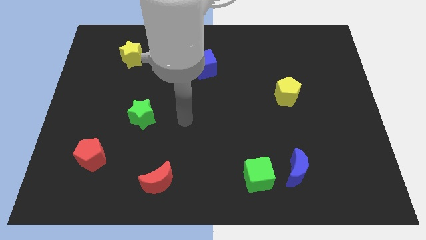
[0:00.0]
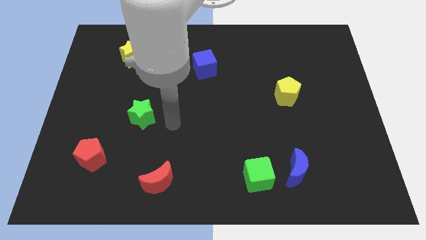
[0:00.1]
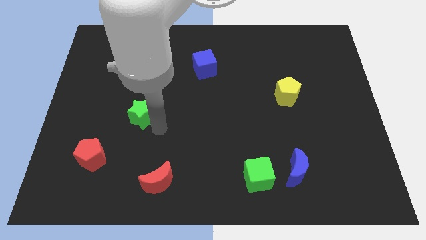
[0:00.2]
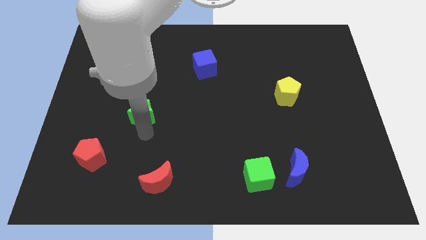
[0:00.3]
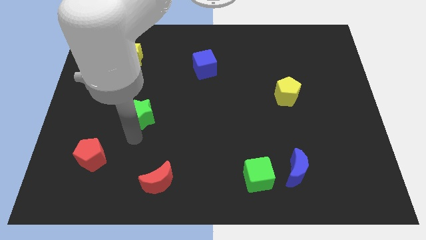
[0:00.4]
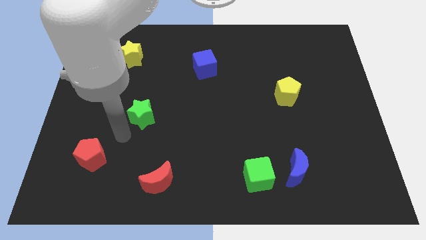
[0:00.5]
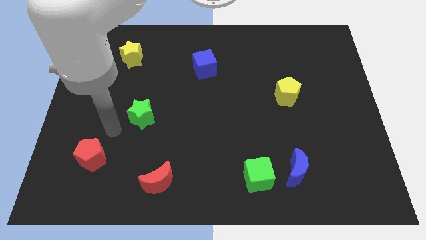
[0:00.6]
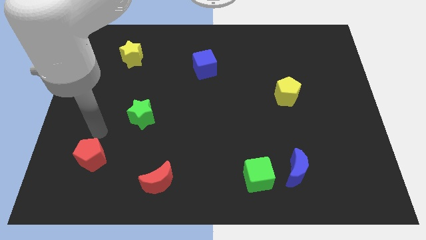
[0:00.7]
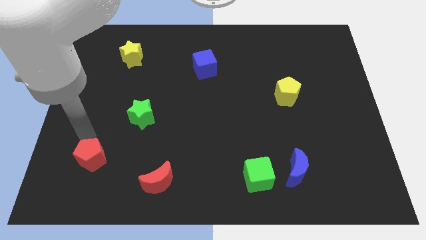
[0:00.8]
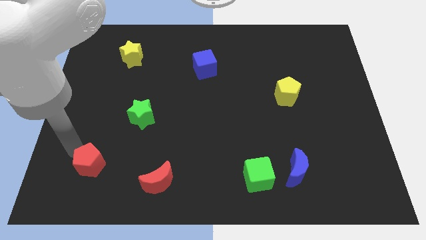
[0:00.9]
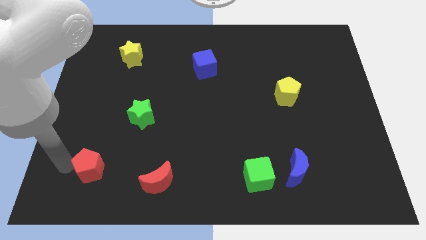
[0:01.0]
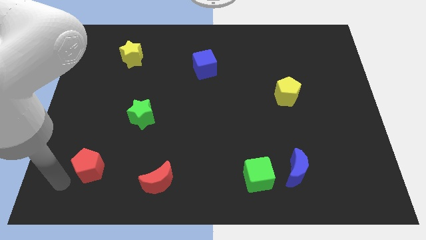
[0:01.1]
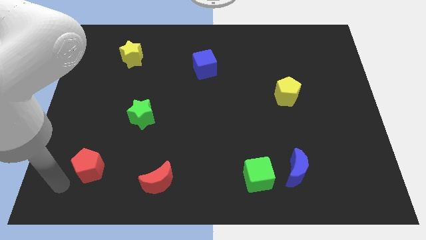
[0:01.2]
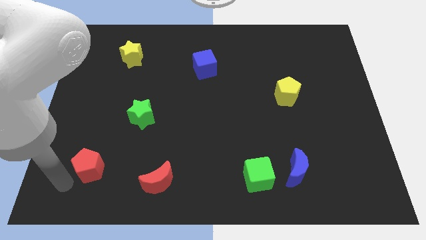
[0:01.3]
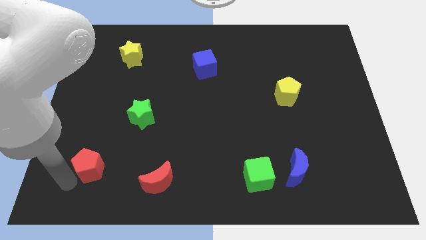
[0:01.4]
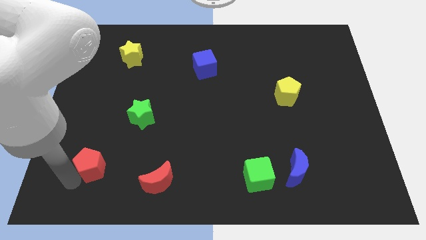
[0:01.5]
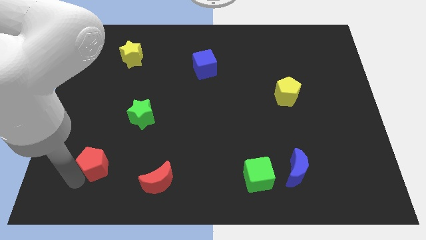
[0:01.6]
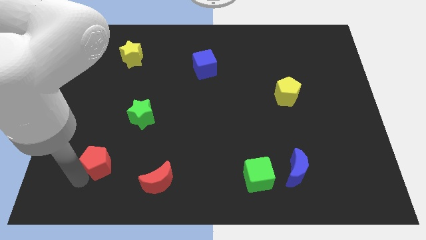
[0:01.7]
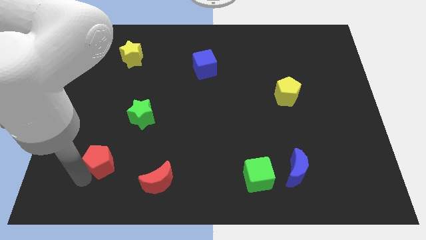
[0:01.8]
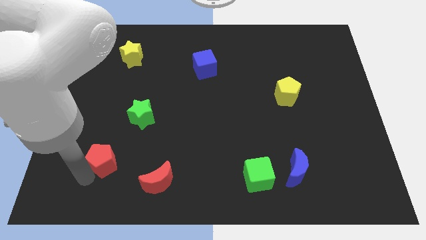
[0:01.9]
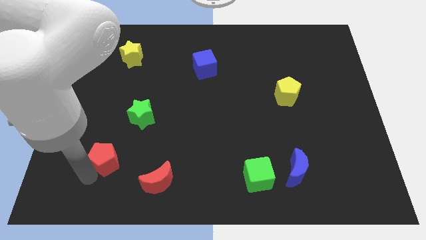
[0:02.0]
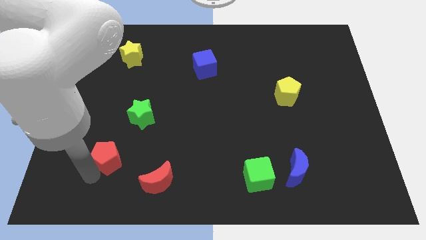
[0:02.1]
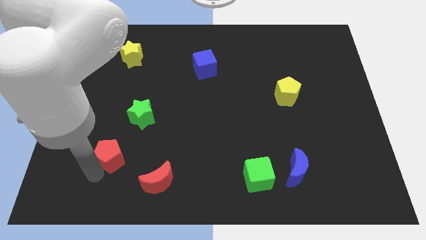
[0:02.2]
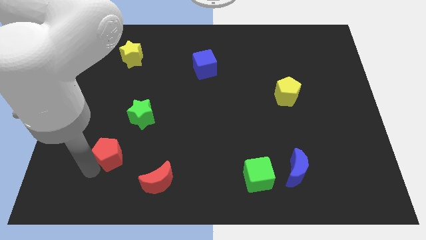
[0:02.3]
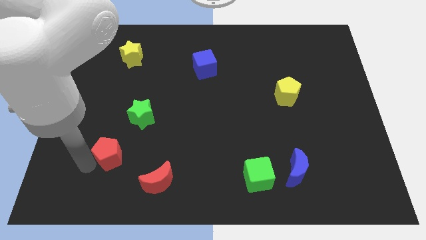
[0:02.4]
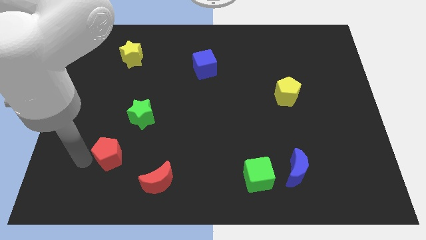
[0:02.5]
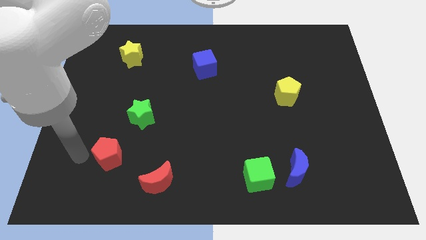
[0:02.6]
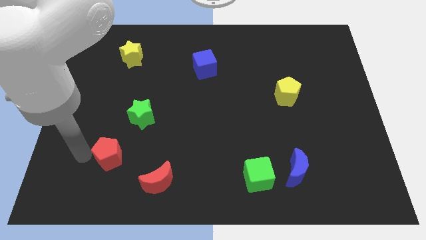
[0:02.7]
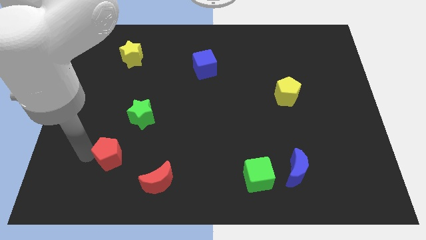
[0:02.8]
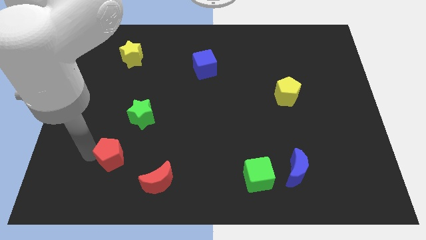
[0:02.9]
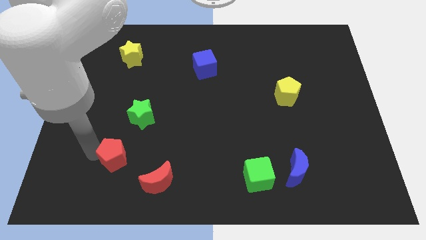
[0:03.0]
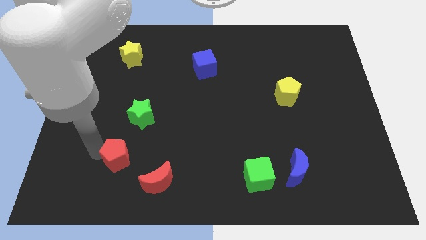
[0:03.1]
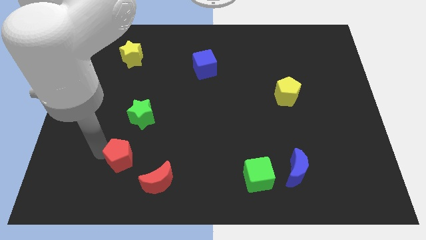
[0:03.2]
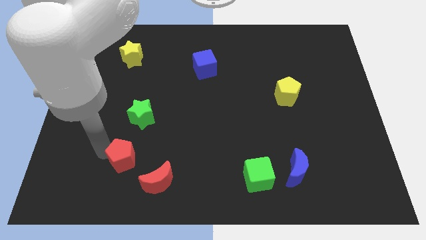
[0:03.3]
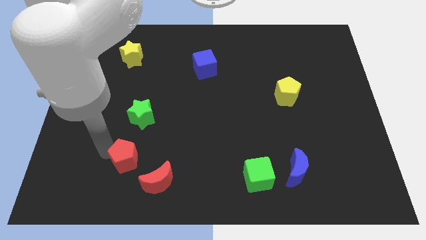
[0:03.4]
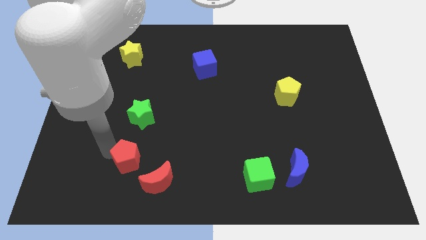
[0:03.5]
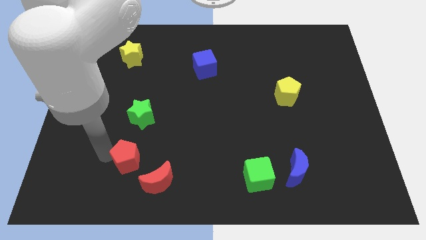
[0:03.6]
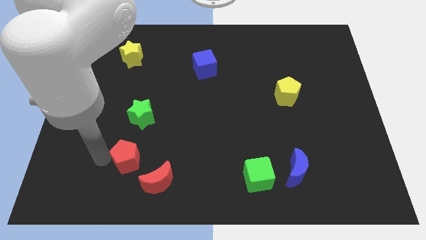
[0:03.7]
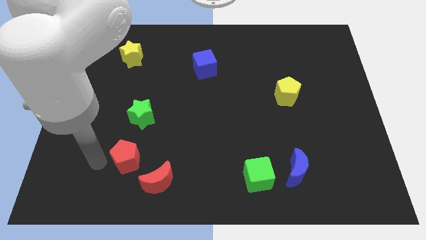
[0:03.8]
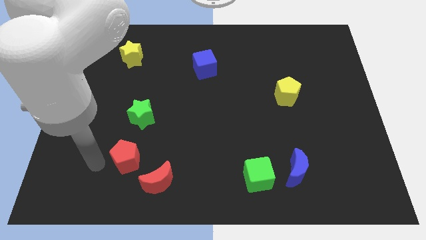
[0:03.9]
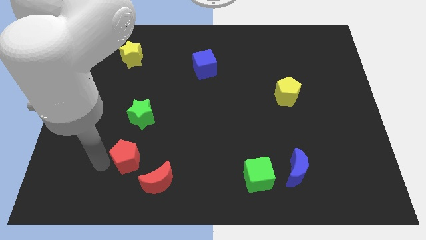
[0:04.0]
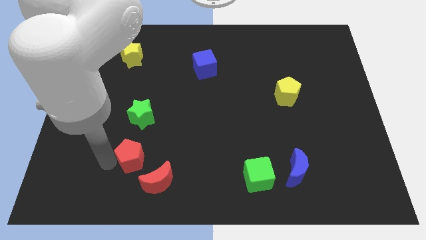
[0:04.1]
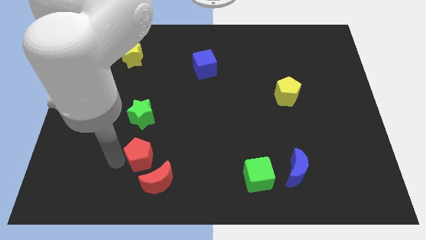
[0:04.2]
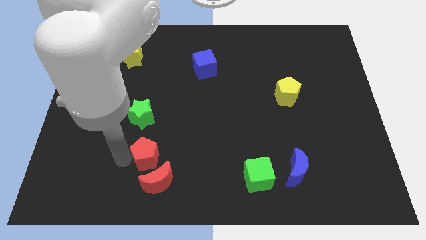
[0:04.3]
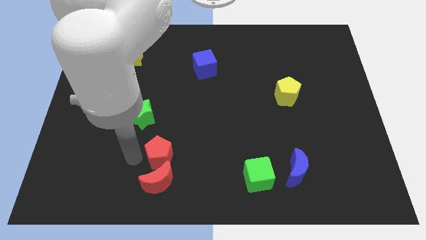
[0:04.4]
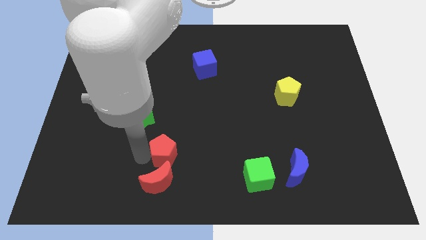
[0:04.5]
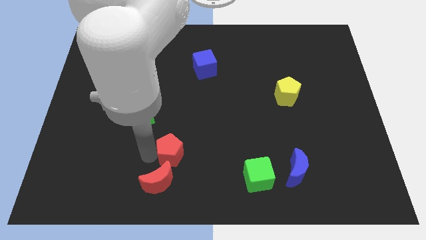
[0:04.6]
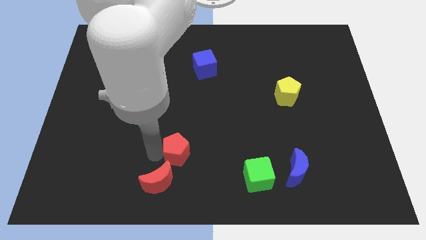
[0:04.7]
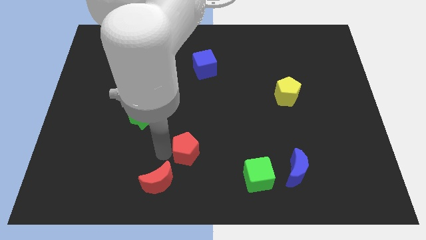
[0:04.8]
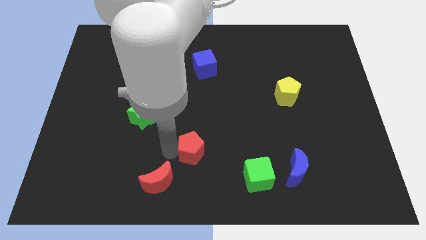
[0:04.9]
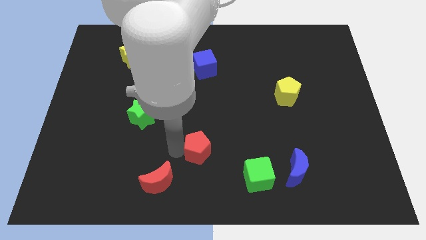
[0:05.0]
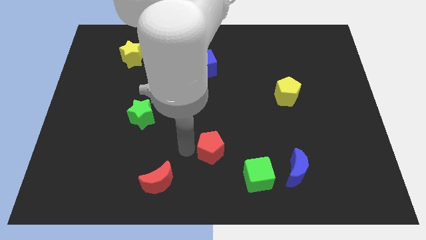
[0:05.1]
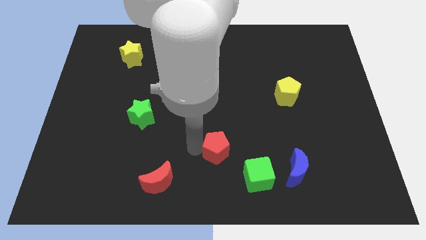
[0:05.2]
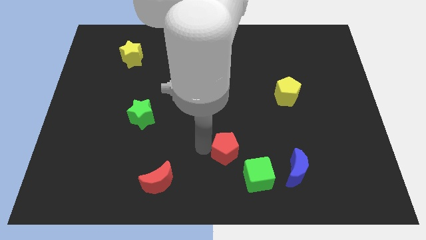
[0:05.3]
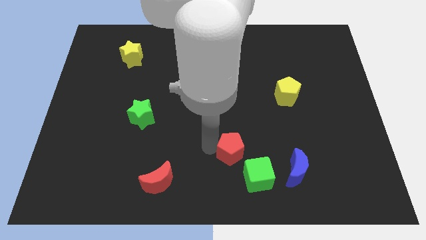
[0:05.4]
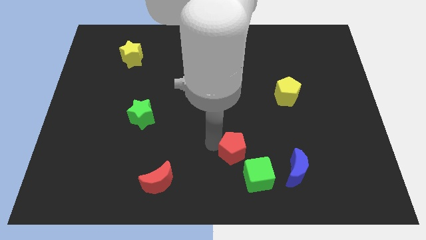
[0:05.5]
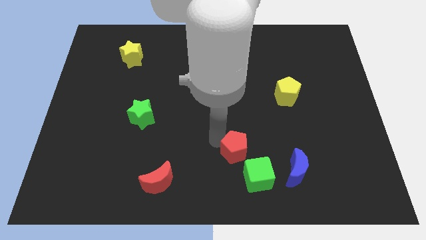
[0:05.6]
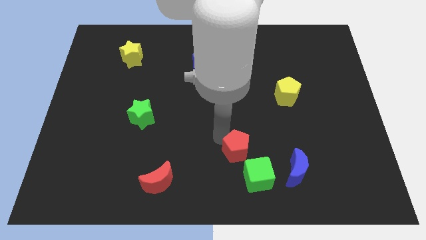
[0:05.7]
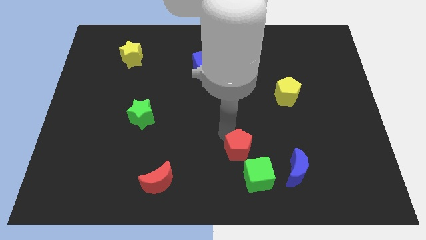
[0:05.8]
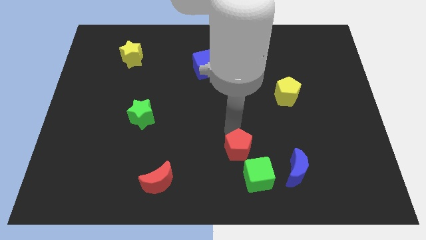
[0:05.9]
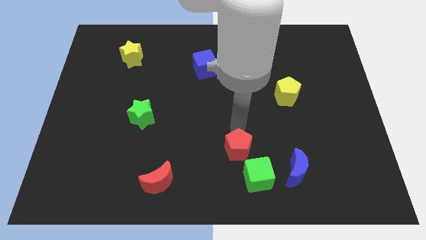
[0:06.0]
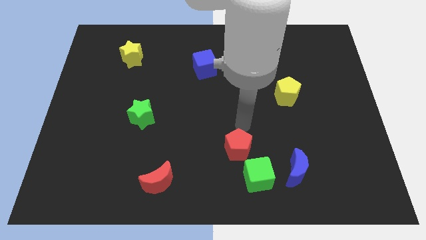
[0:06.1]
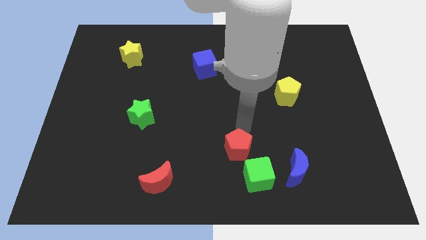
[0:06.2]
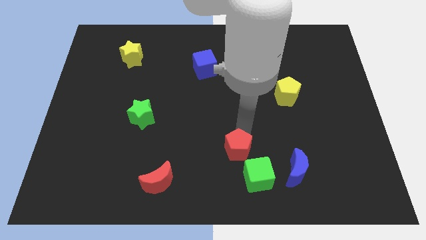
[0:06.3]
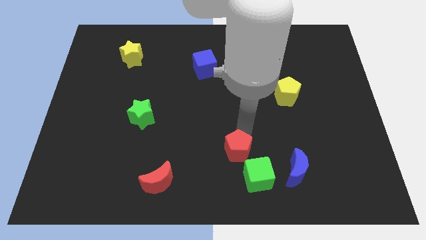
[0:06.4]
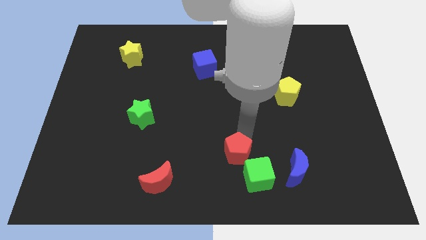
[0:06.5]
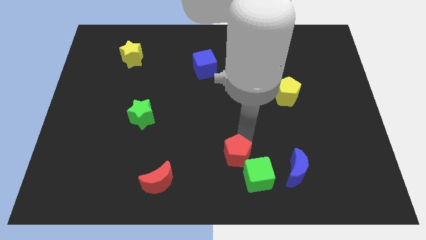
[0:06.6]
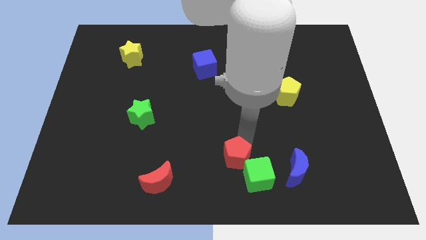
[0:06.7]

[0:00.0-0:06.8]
push the red pentagon to the green cube

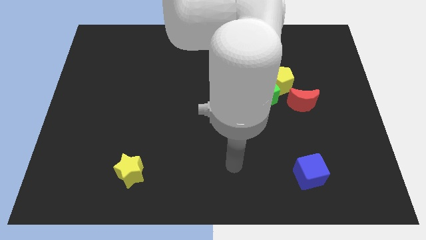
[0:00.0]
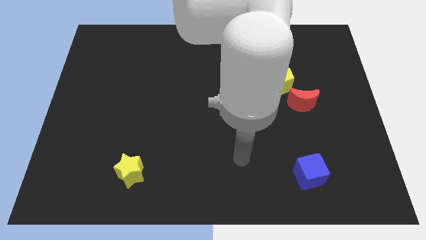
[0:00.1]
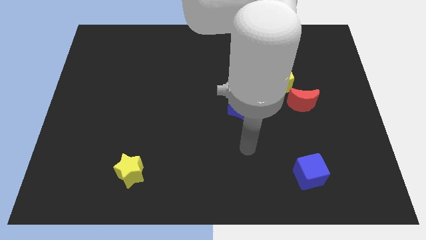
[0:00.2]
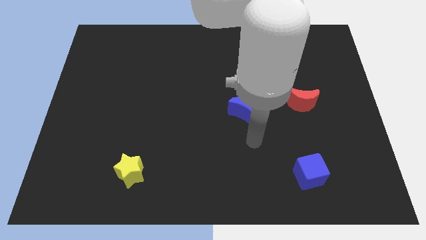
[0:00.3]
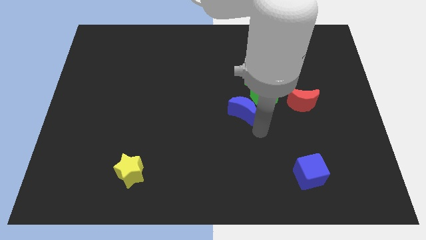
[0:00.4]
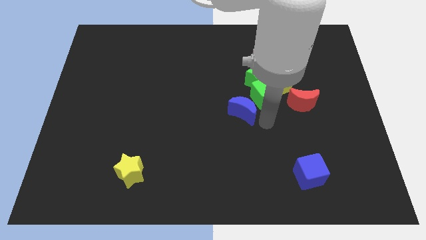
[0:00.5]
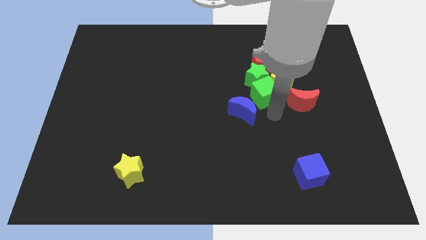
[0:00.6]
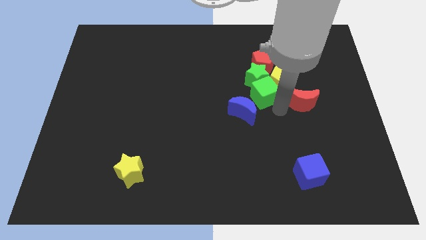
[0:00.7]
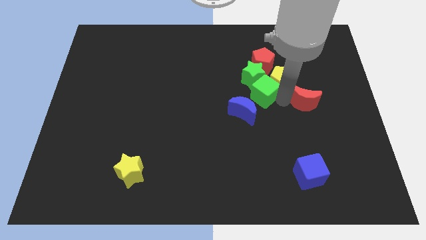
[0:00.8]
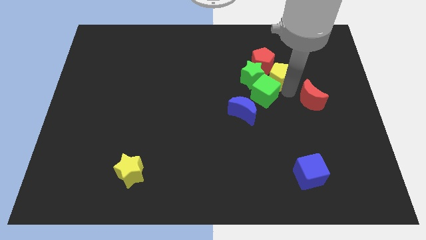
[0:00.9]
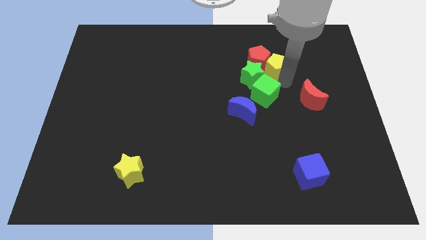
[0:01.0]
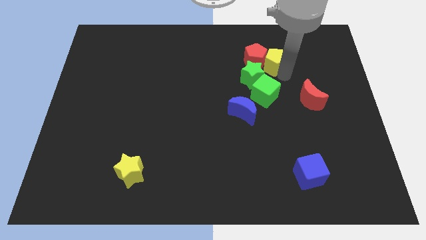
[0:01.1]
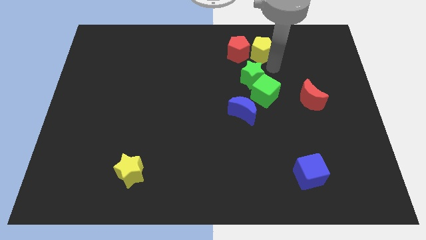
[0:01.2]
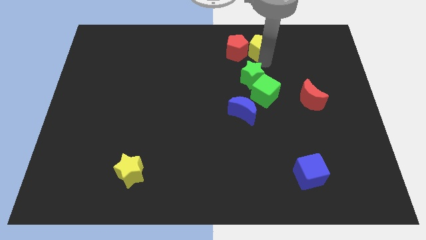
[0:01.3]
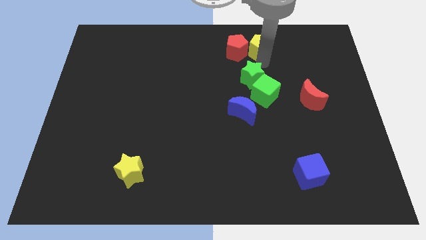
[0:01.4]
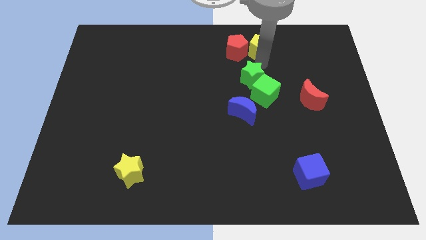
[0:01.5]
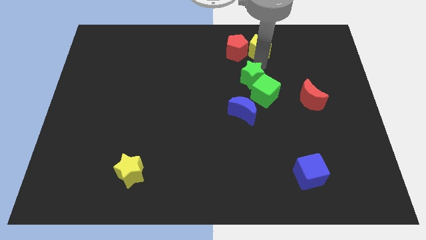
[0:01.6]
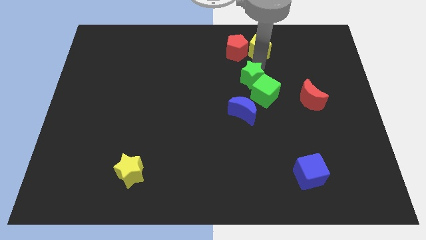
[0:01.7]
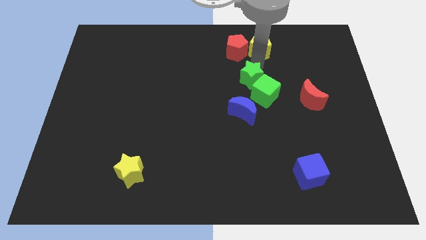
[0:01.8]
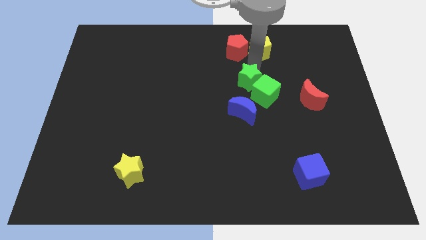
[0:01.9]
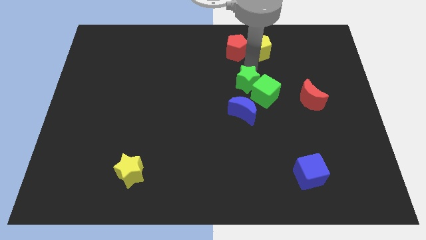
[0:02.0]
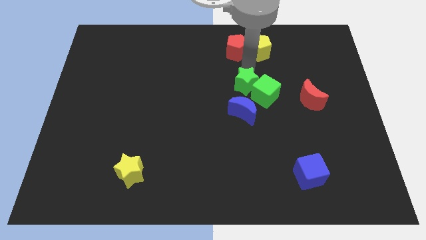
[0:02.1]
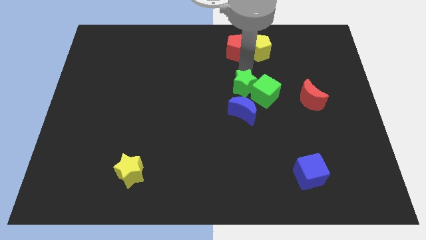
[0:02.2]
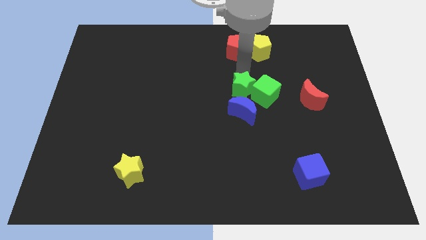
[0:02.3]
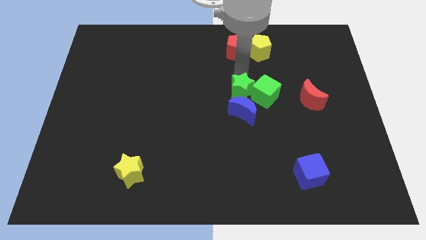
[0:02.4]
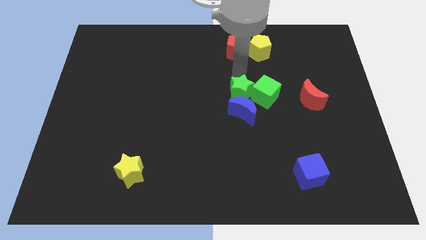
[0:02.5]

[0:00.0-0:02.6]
put the green star towards the blue moon
